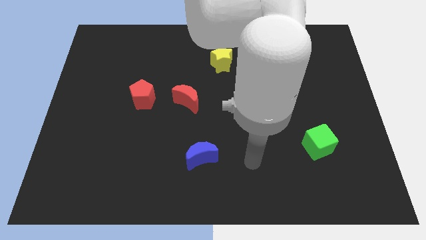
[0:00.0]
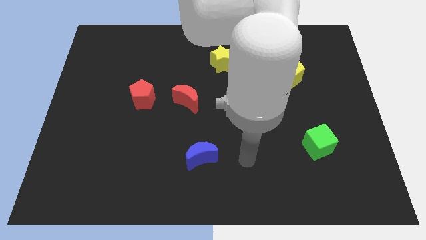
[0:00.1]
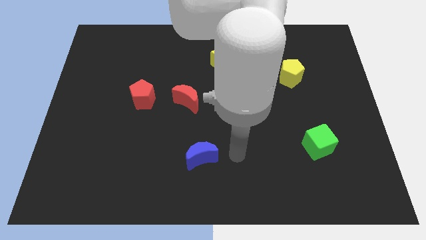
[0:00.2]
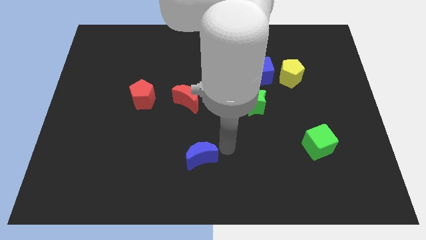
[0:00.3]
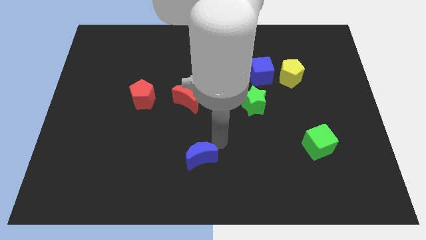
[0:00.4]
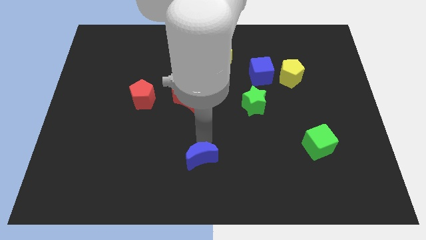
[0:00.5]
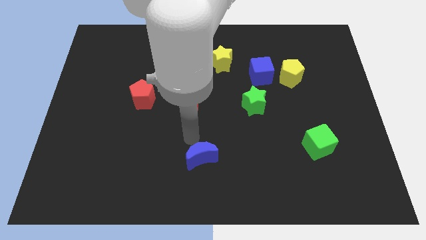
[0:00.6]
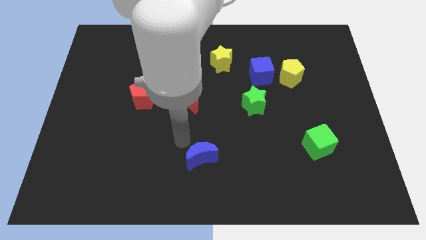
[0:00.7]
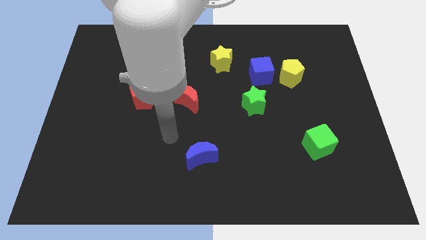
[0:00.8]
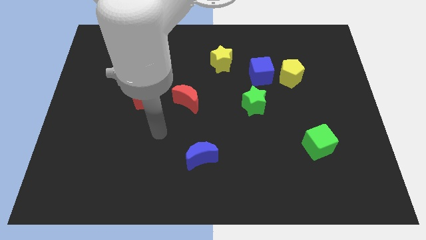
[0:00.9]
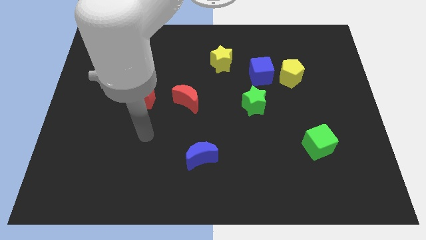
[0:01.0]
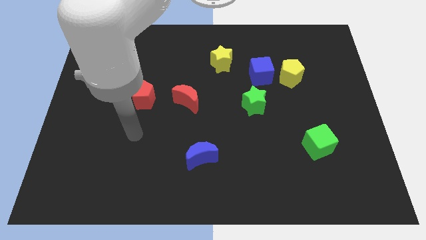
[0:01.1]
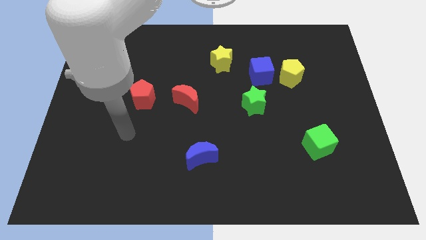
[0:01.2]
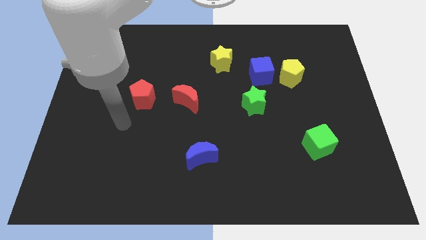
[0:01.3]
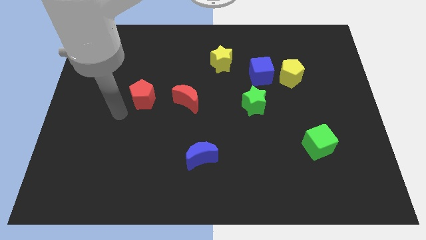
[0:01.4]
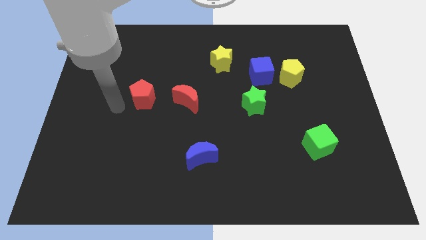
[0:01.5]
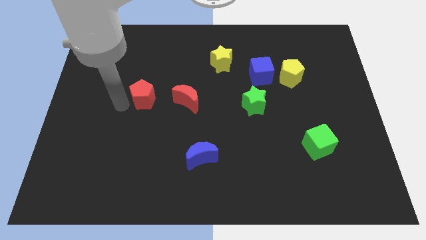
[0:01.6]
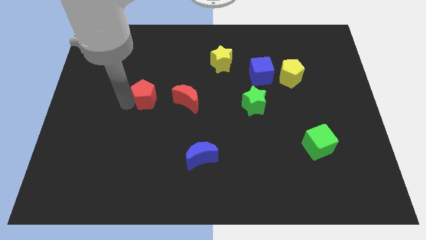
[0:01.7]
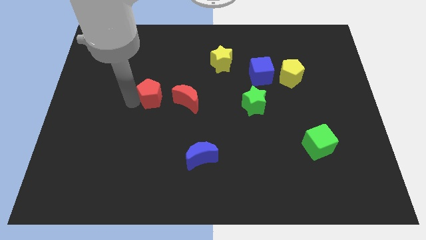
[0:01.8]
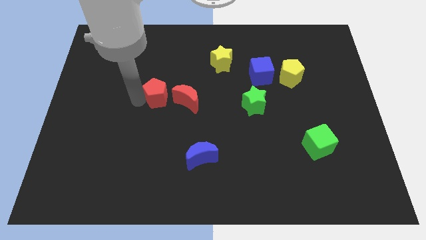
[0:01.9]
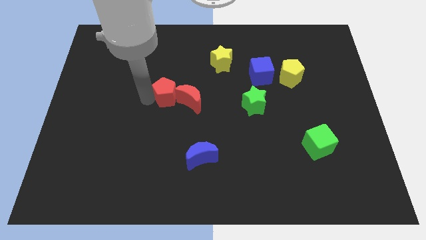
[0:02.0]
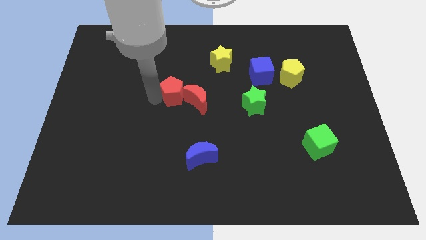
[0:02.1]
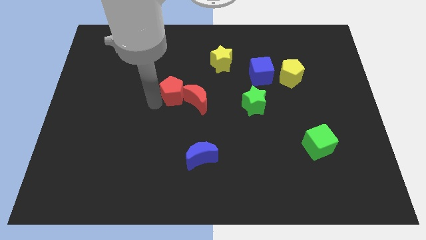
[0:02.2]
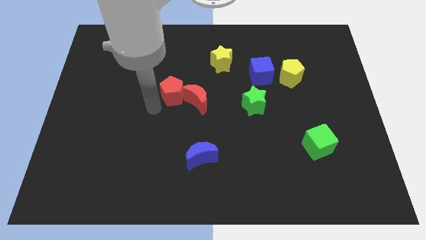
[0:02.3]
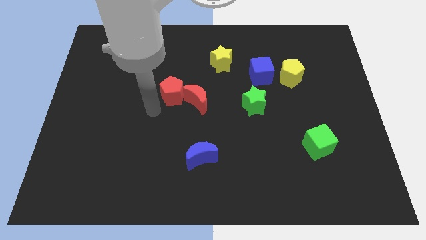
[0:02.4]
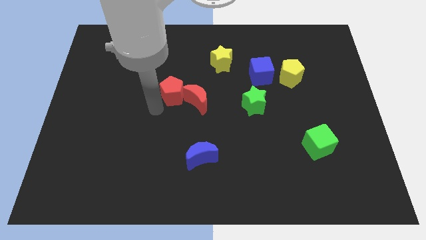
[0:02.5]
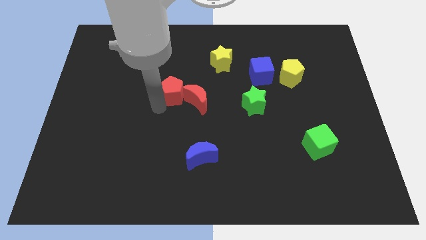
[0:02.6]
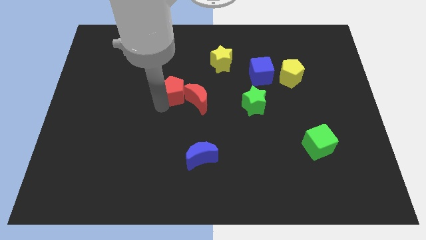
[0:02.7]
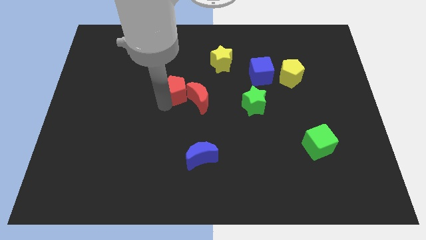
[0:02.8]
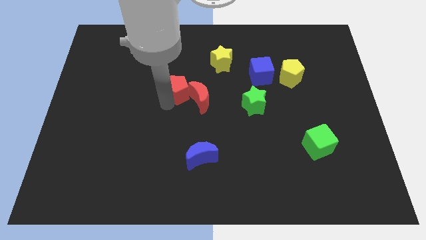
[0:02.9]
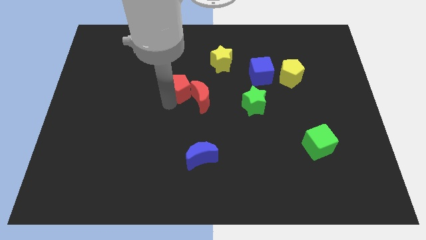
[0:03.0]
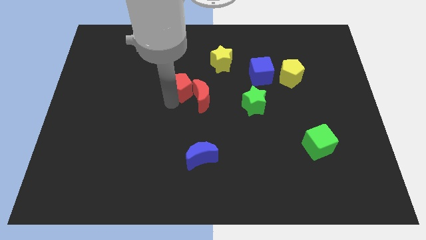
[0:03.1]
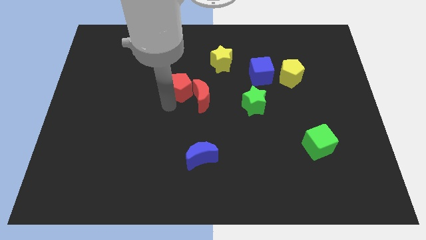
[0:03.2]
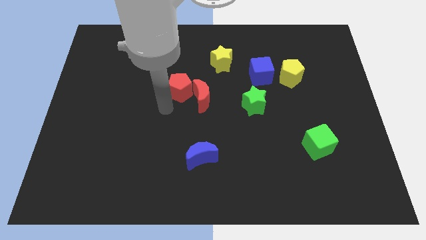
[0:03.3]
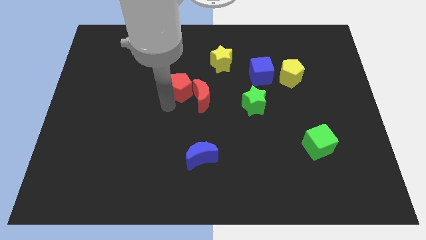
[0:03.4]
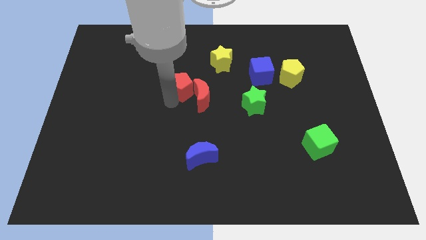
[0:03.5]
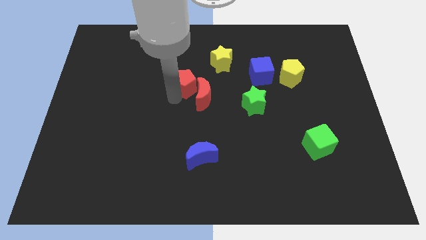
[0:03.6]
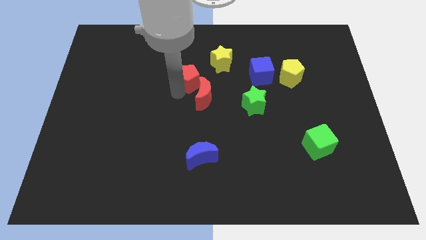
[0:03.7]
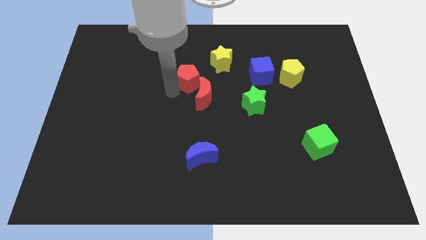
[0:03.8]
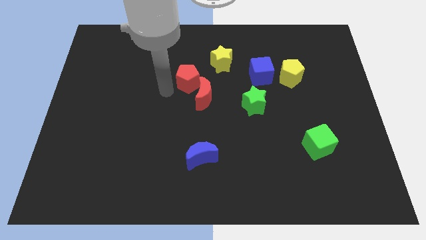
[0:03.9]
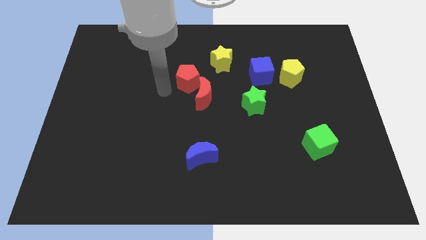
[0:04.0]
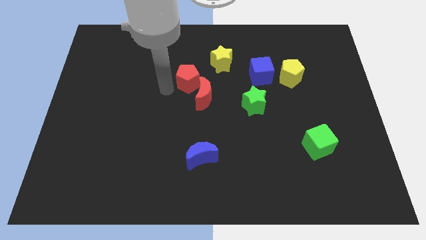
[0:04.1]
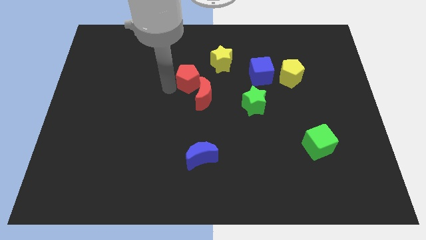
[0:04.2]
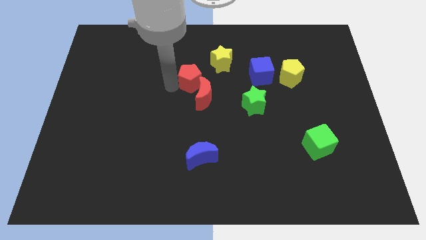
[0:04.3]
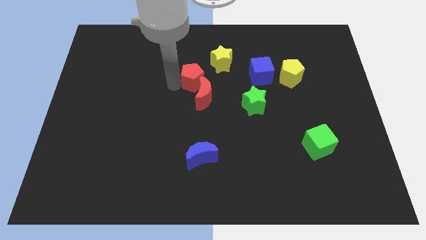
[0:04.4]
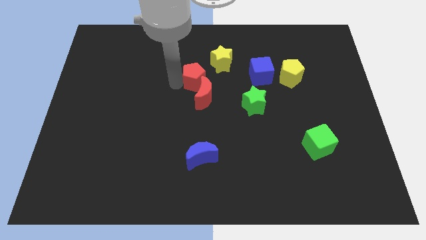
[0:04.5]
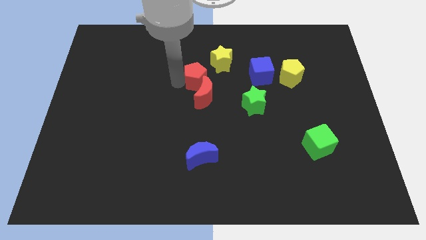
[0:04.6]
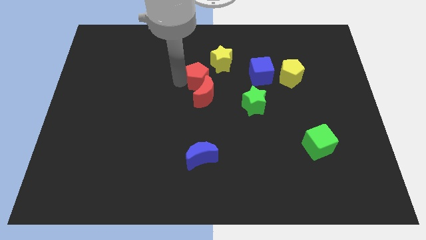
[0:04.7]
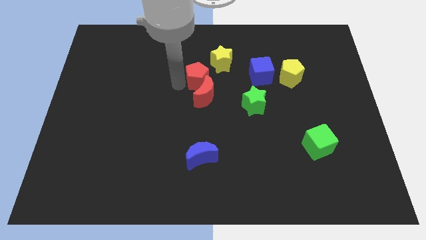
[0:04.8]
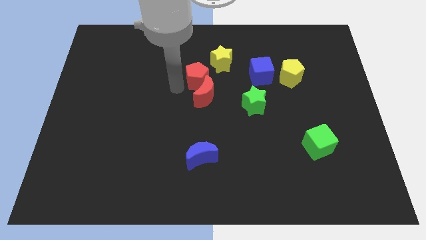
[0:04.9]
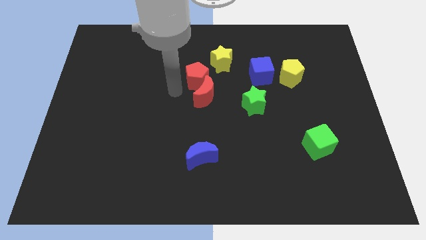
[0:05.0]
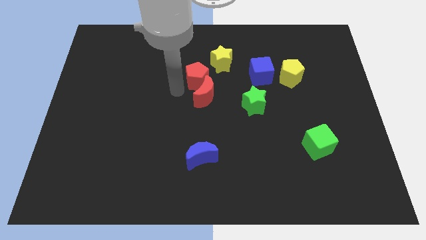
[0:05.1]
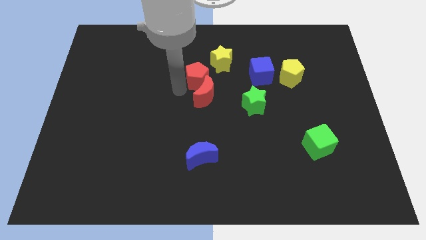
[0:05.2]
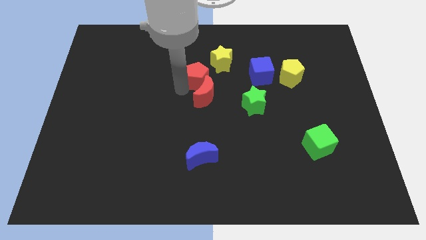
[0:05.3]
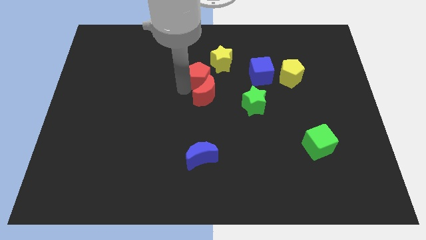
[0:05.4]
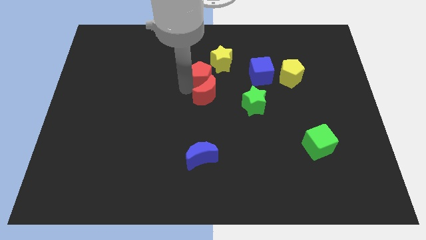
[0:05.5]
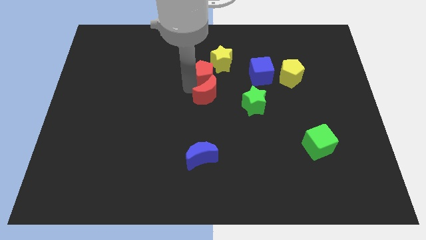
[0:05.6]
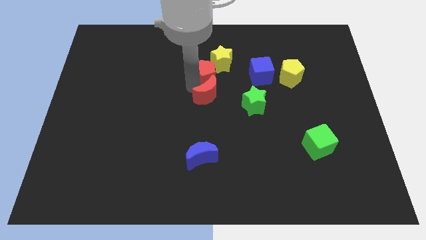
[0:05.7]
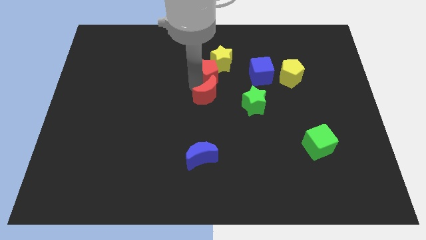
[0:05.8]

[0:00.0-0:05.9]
put the red pentagon next to the yellow star

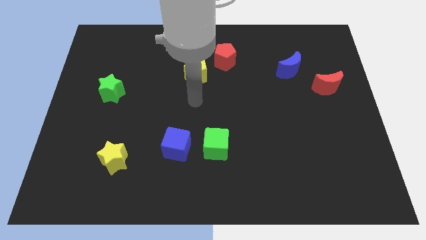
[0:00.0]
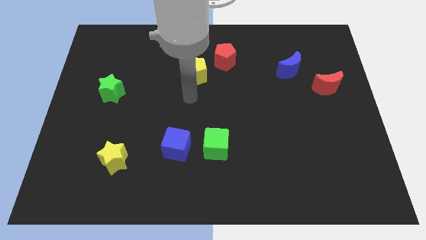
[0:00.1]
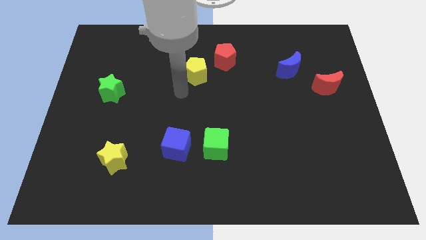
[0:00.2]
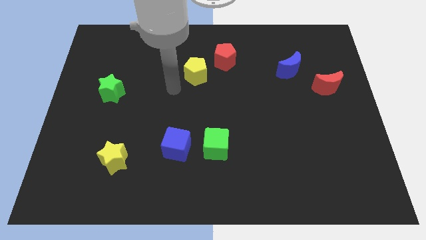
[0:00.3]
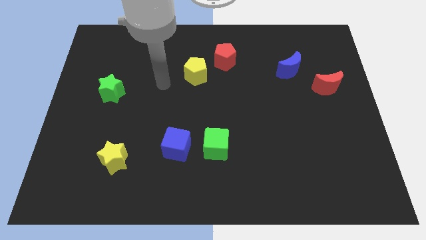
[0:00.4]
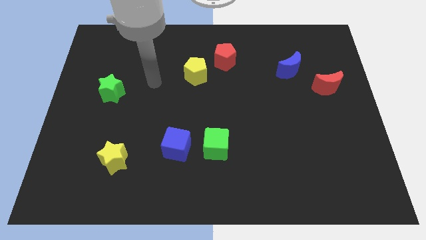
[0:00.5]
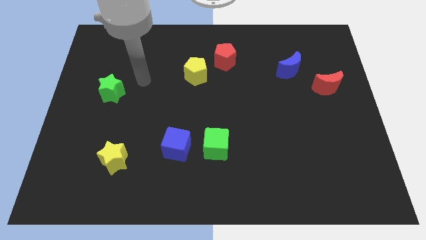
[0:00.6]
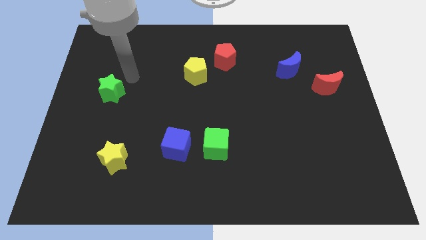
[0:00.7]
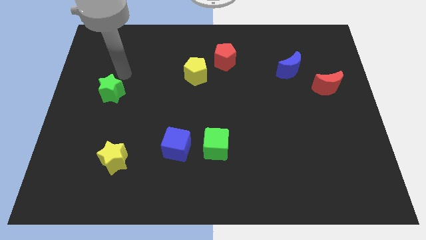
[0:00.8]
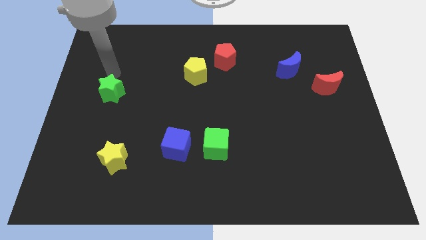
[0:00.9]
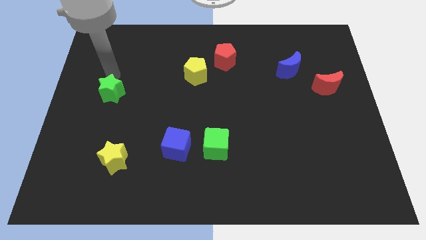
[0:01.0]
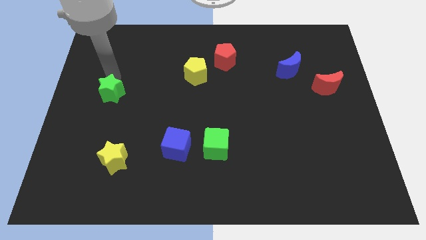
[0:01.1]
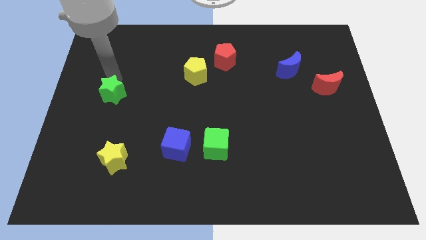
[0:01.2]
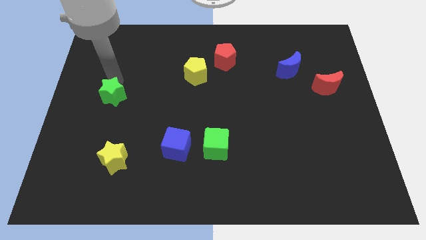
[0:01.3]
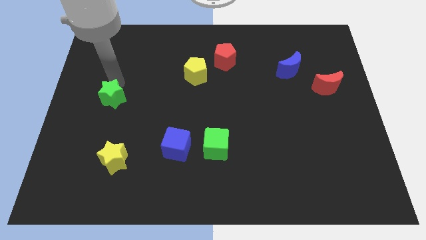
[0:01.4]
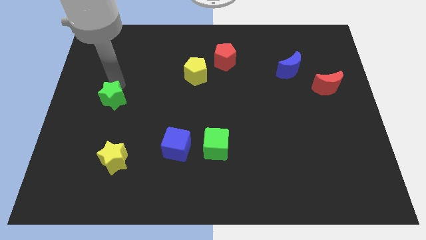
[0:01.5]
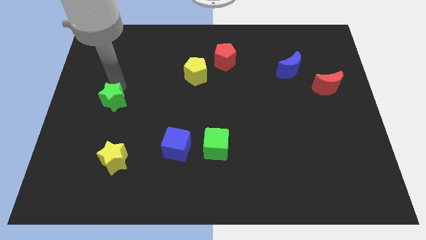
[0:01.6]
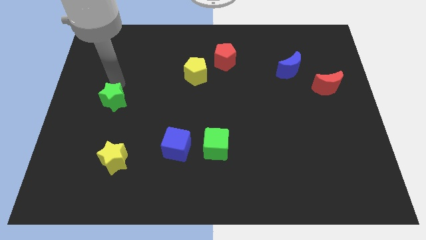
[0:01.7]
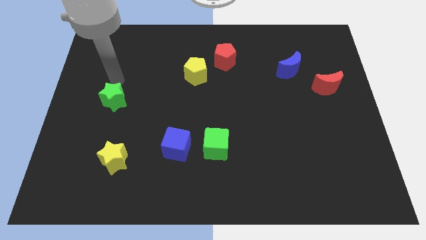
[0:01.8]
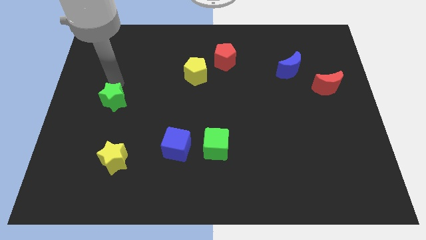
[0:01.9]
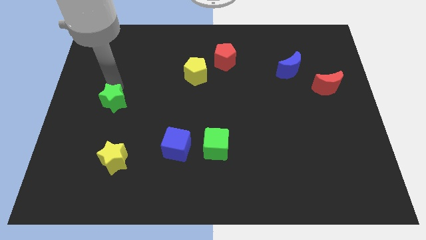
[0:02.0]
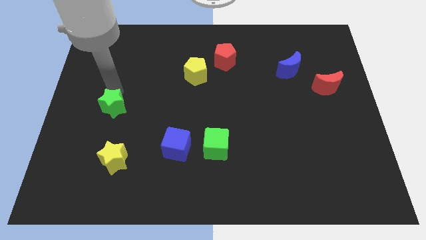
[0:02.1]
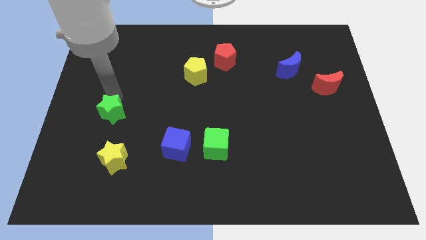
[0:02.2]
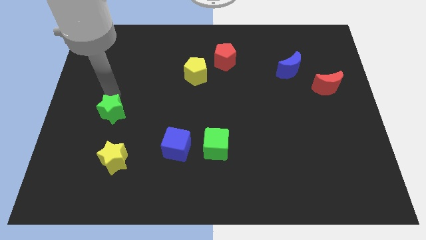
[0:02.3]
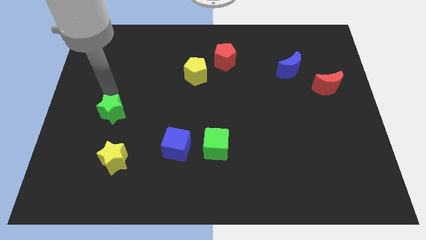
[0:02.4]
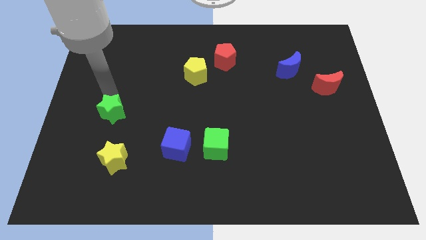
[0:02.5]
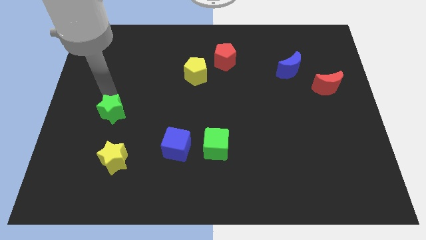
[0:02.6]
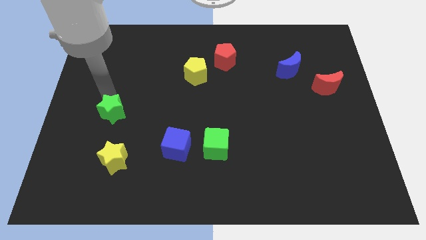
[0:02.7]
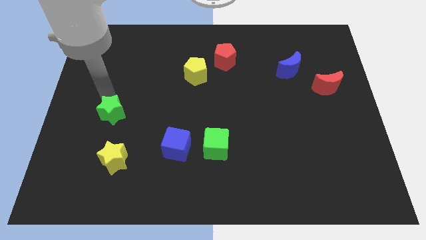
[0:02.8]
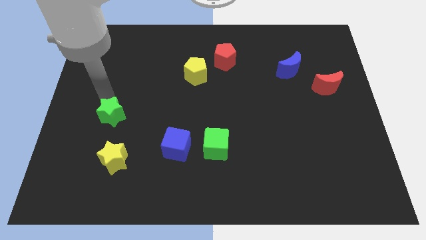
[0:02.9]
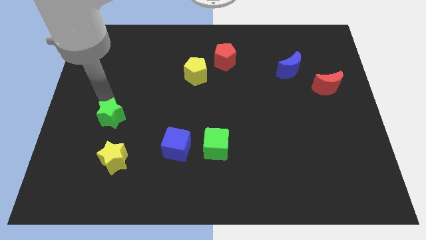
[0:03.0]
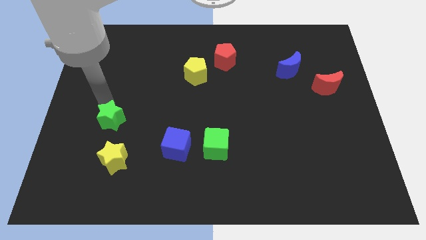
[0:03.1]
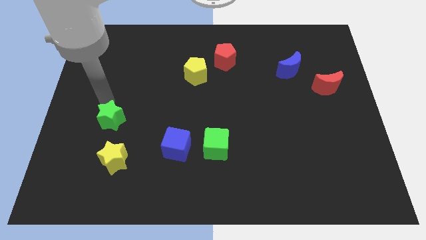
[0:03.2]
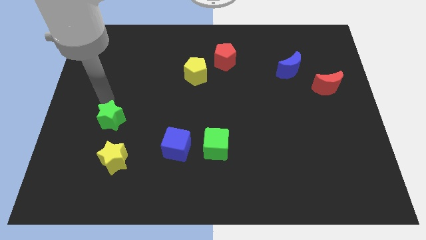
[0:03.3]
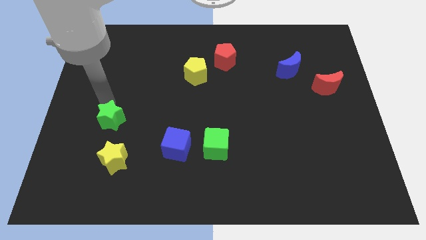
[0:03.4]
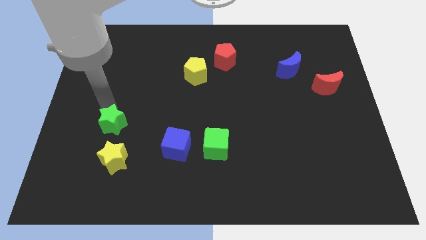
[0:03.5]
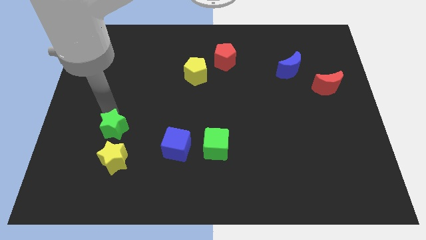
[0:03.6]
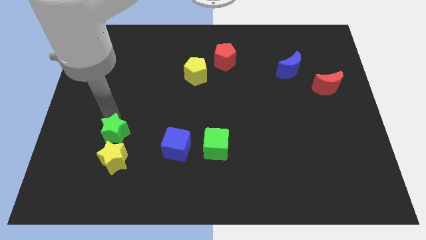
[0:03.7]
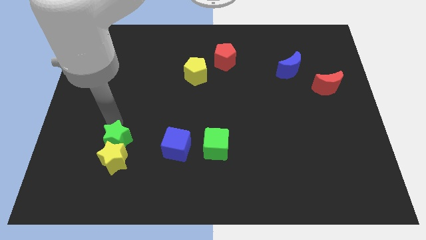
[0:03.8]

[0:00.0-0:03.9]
move the green star close to the yellow star
